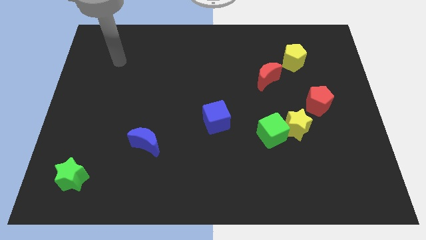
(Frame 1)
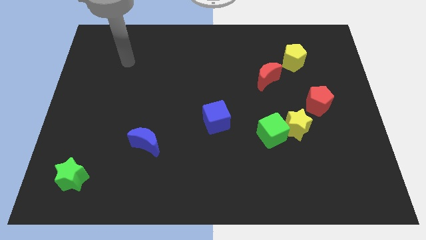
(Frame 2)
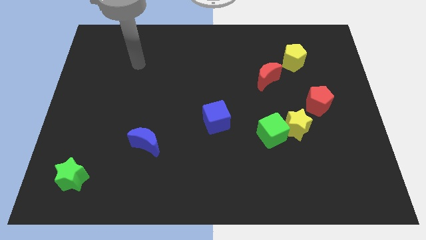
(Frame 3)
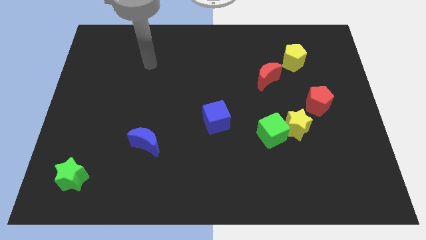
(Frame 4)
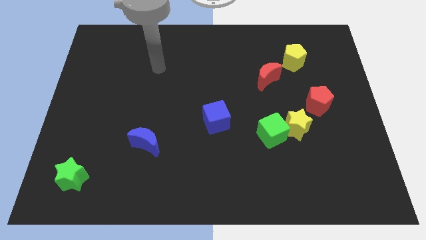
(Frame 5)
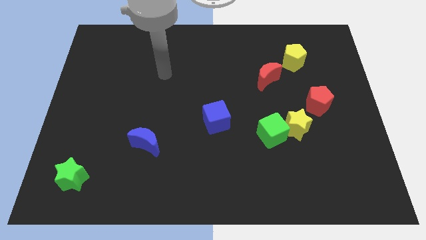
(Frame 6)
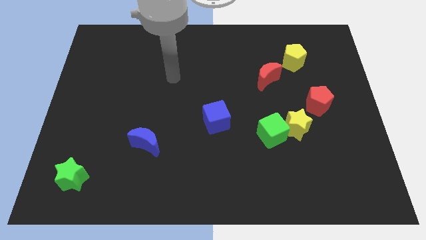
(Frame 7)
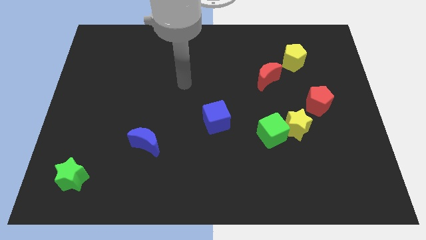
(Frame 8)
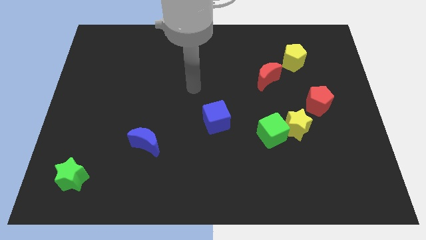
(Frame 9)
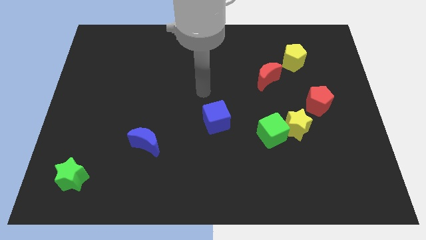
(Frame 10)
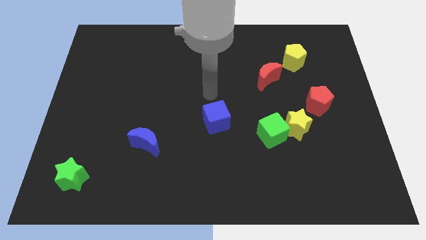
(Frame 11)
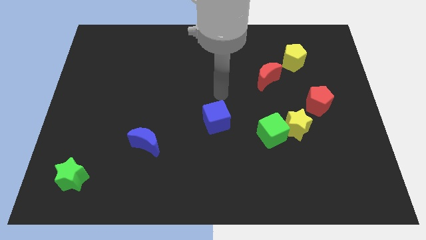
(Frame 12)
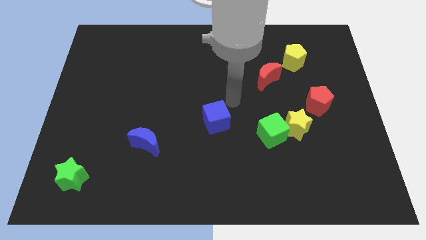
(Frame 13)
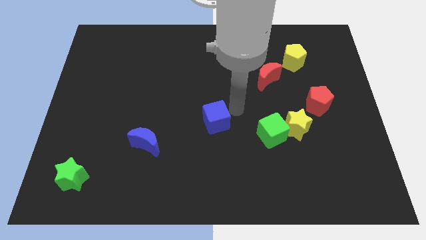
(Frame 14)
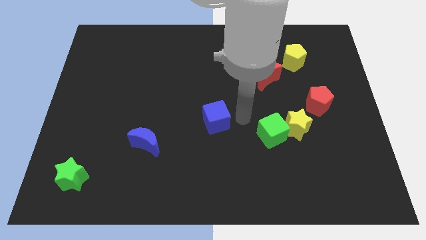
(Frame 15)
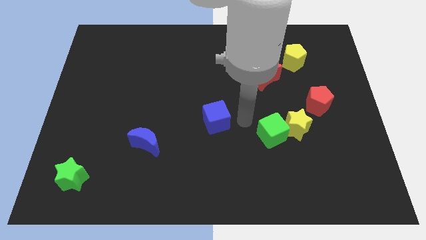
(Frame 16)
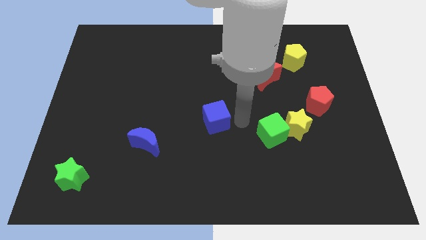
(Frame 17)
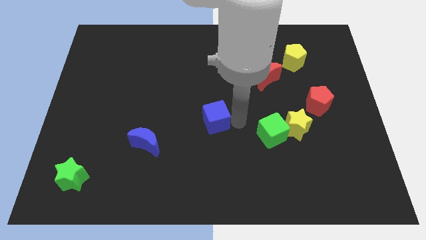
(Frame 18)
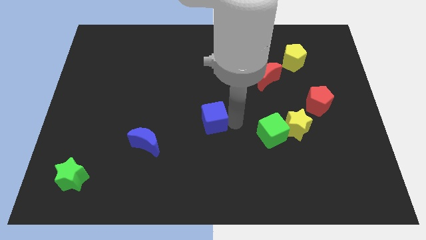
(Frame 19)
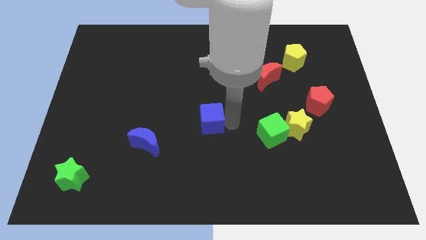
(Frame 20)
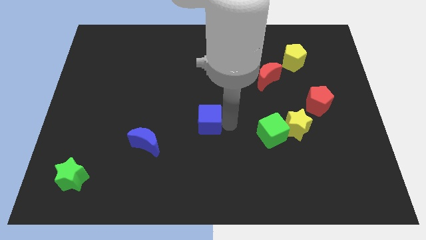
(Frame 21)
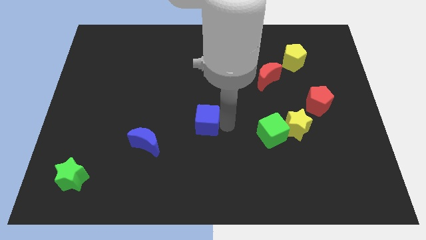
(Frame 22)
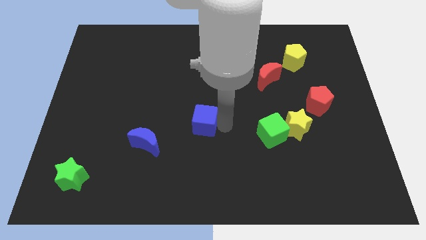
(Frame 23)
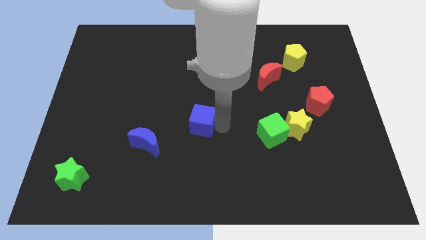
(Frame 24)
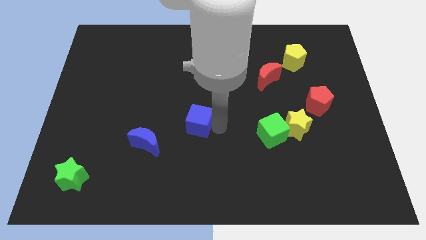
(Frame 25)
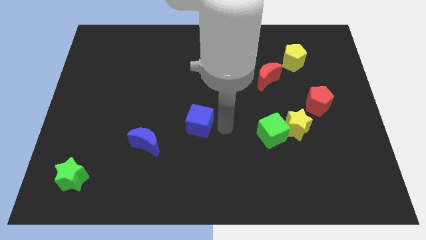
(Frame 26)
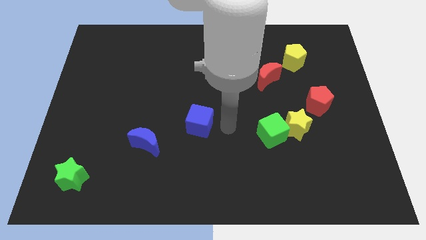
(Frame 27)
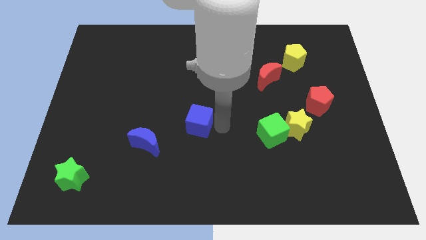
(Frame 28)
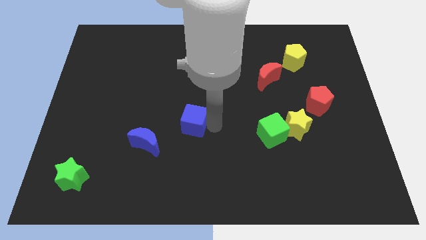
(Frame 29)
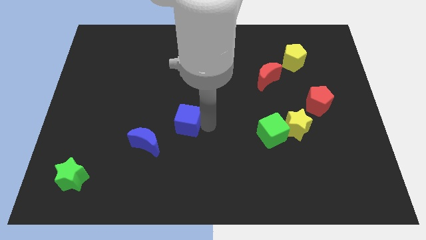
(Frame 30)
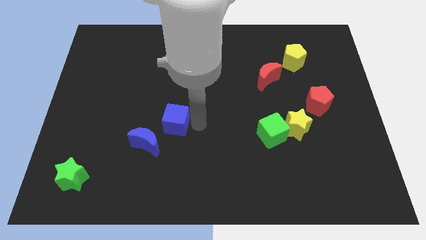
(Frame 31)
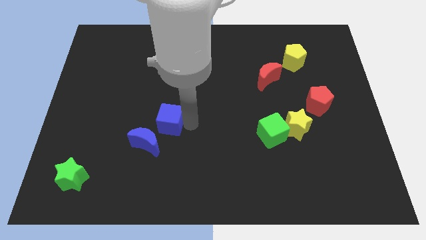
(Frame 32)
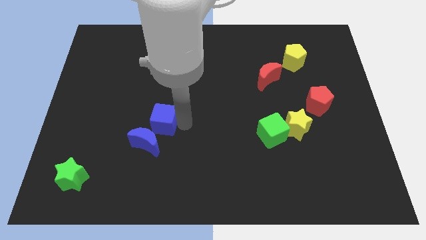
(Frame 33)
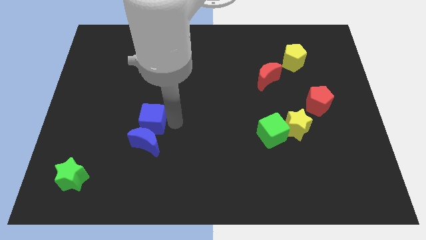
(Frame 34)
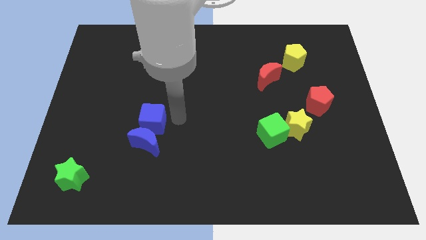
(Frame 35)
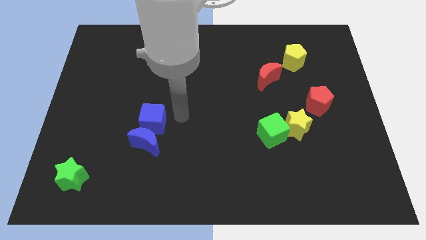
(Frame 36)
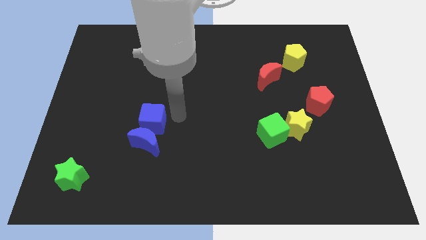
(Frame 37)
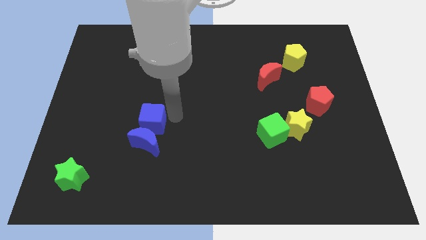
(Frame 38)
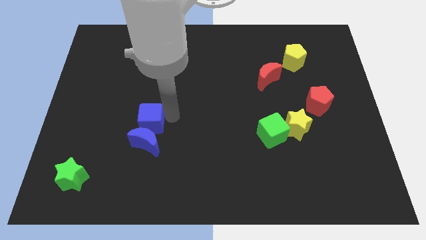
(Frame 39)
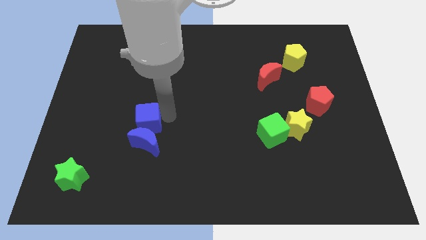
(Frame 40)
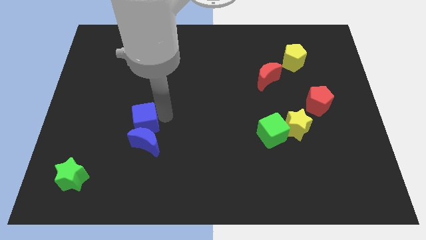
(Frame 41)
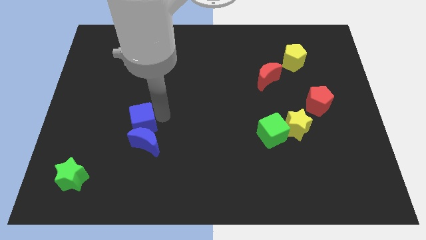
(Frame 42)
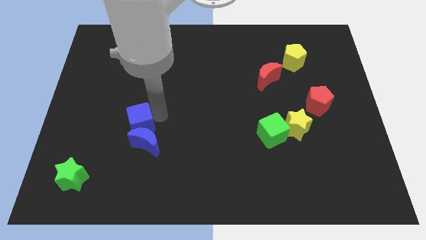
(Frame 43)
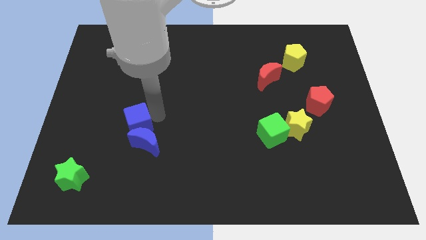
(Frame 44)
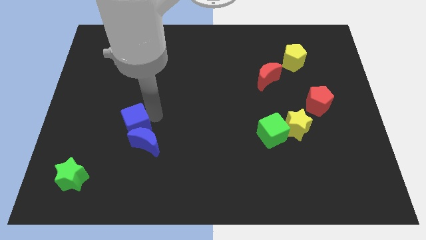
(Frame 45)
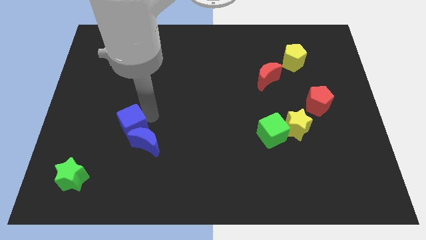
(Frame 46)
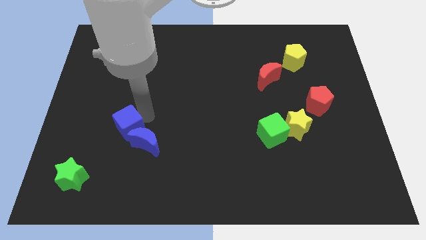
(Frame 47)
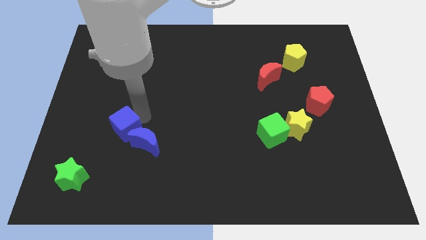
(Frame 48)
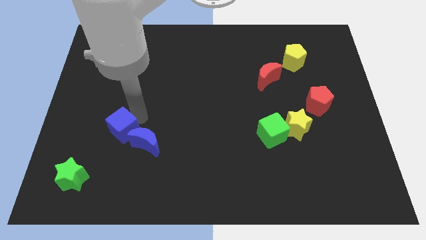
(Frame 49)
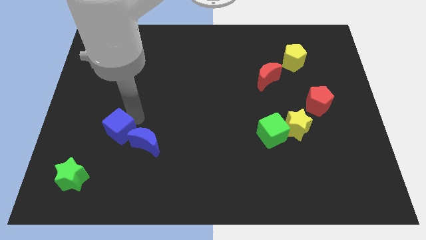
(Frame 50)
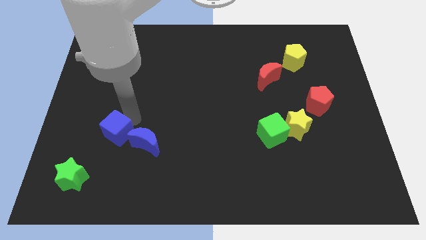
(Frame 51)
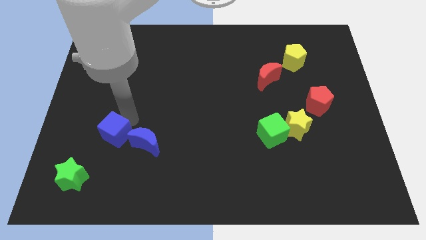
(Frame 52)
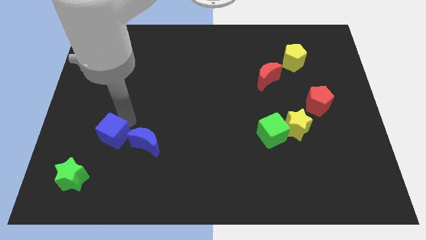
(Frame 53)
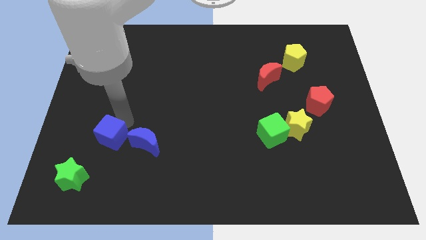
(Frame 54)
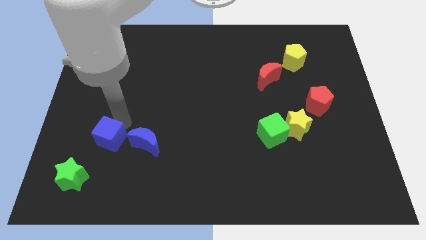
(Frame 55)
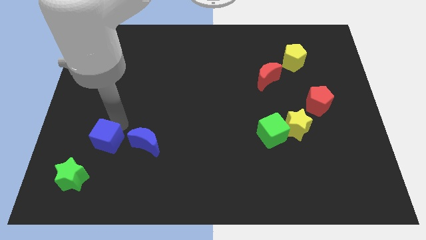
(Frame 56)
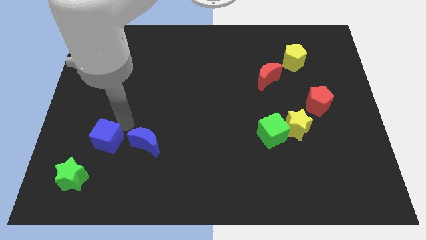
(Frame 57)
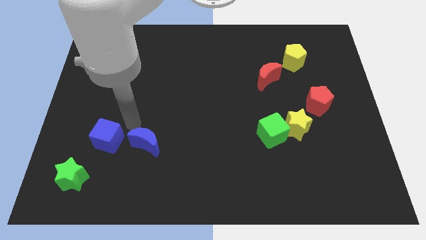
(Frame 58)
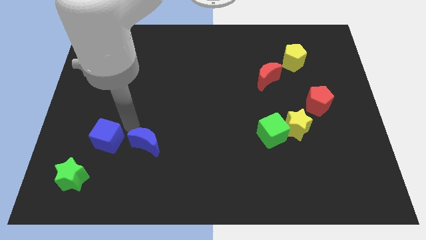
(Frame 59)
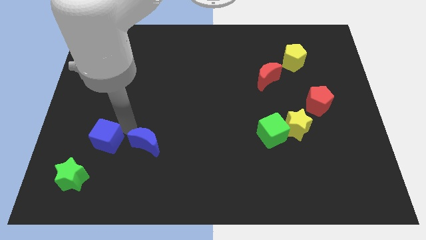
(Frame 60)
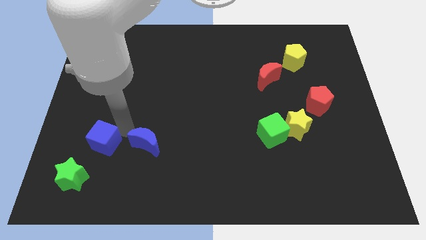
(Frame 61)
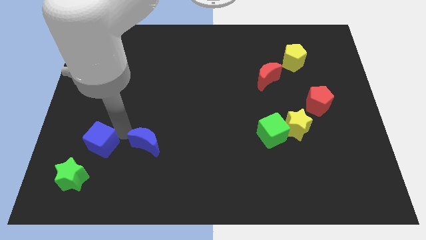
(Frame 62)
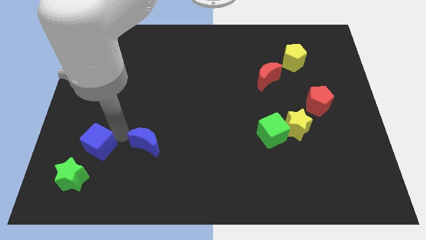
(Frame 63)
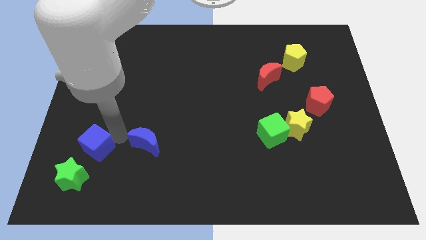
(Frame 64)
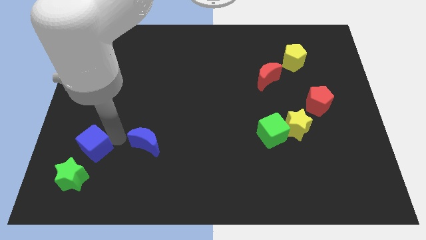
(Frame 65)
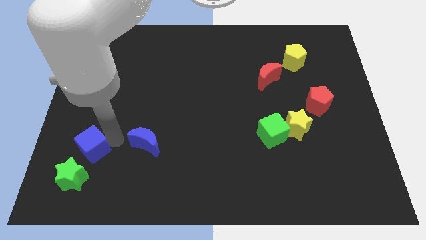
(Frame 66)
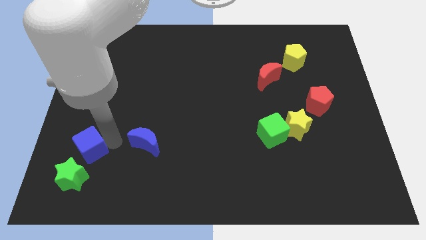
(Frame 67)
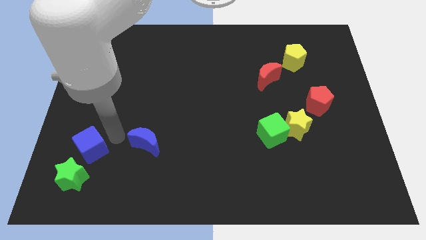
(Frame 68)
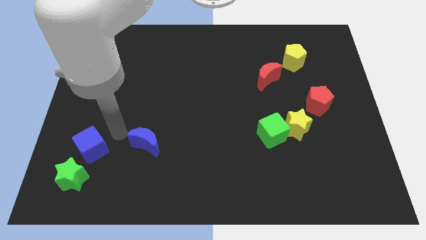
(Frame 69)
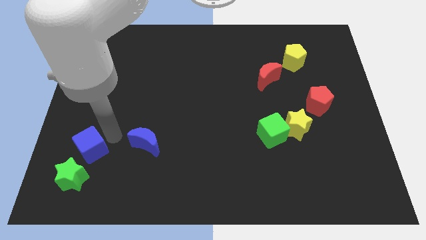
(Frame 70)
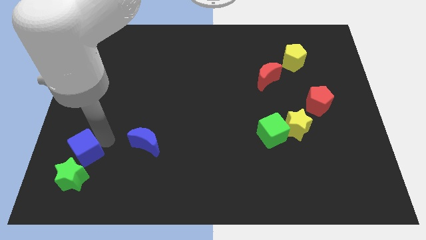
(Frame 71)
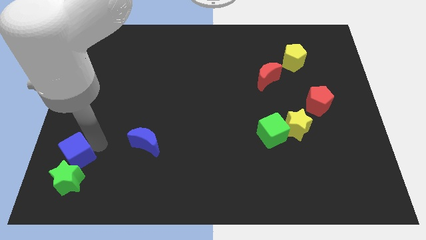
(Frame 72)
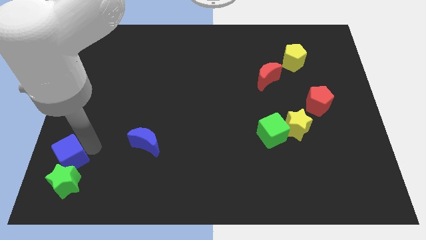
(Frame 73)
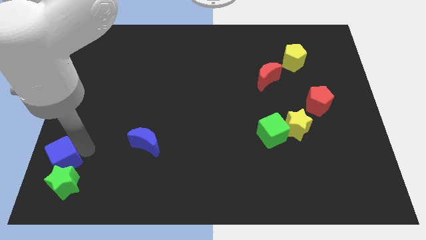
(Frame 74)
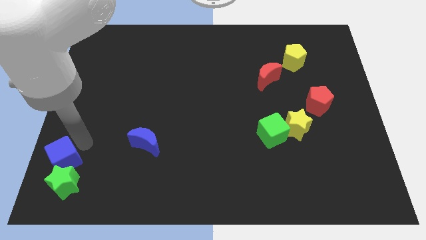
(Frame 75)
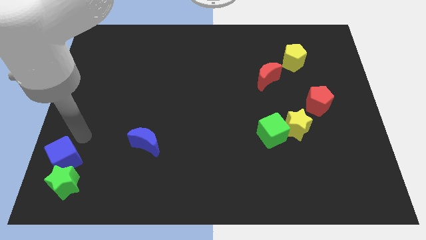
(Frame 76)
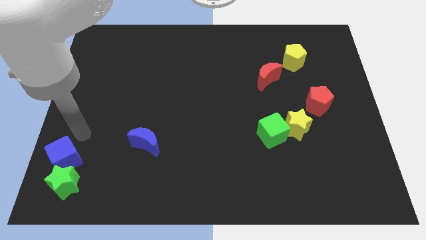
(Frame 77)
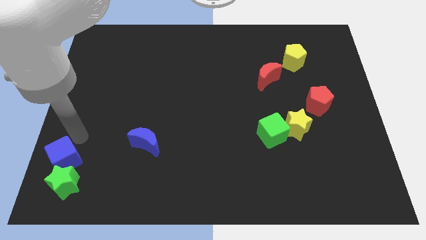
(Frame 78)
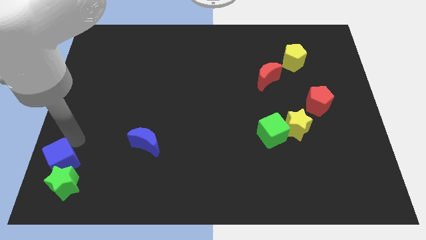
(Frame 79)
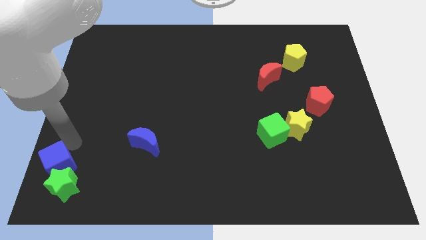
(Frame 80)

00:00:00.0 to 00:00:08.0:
push the blue cube to the bottom left of the board
